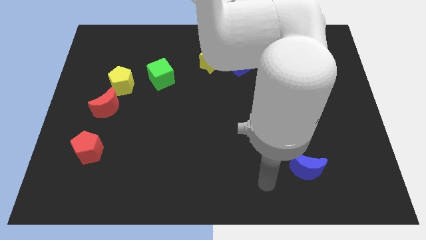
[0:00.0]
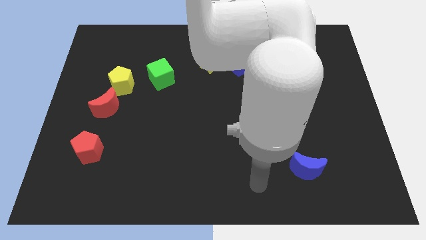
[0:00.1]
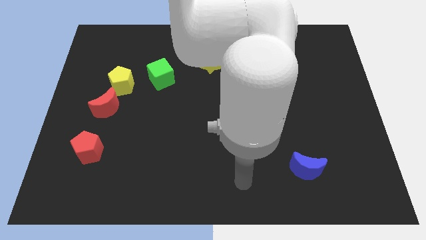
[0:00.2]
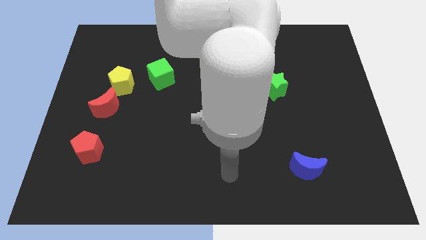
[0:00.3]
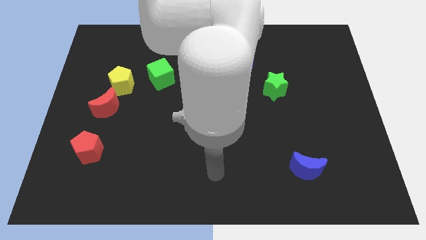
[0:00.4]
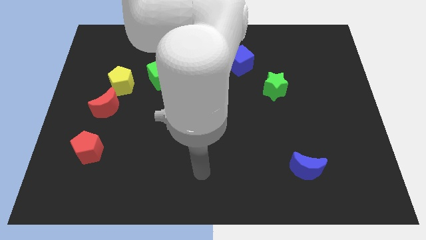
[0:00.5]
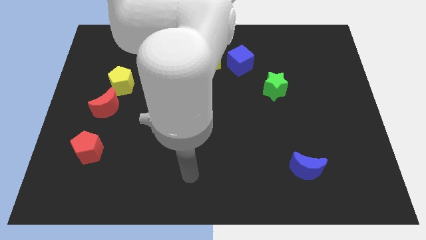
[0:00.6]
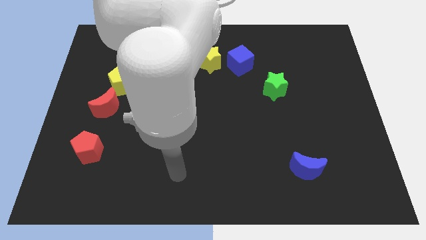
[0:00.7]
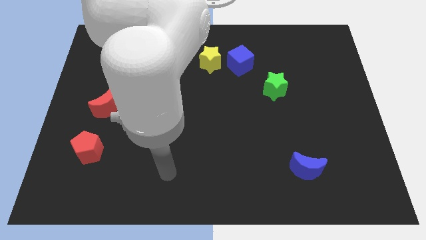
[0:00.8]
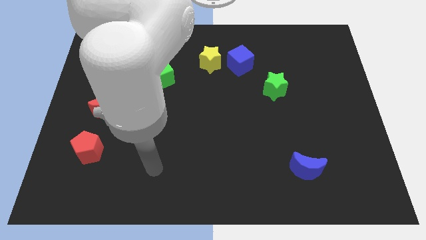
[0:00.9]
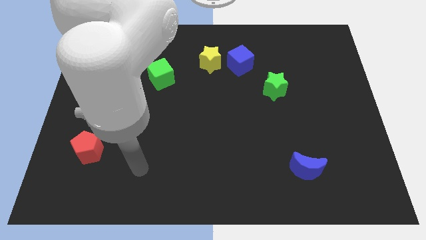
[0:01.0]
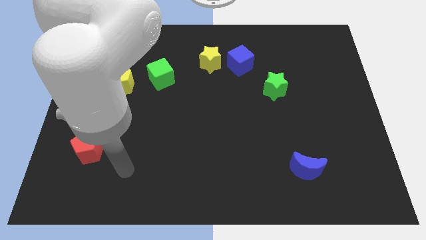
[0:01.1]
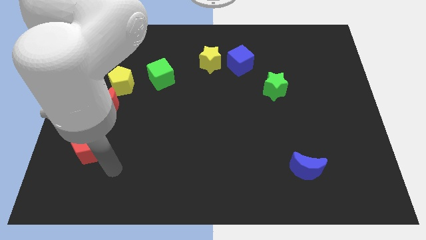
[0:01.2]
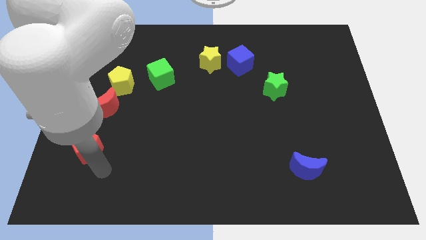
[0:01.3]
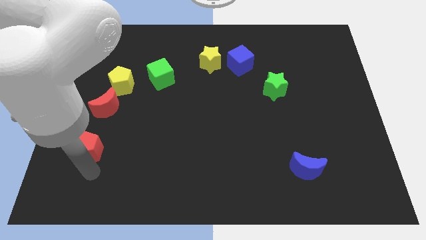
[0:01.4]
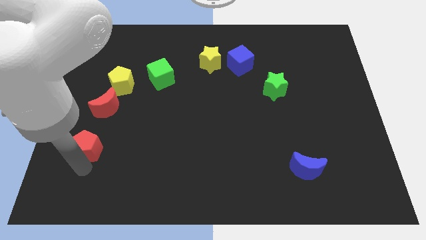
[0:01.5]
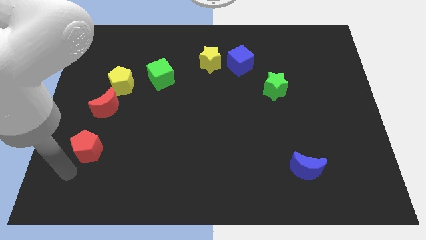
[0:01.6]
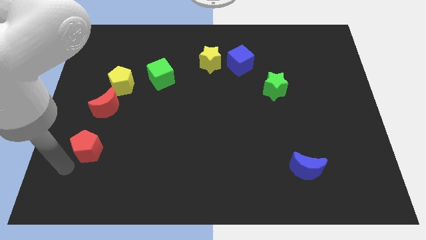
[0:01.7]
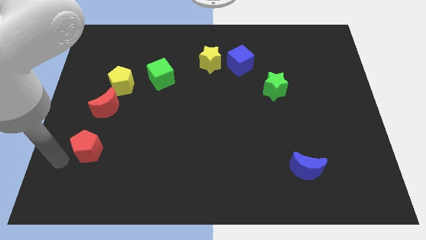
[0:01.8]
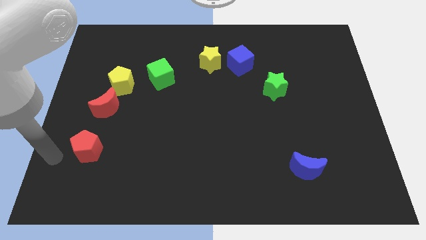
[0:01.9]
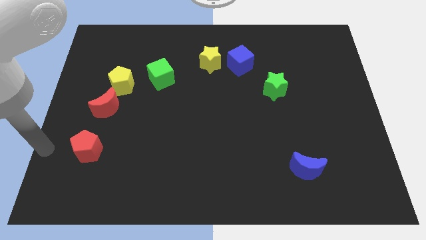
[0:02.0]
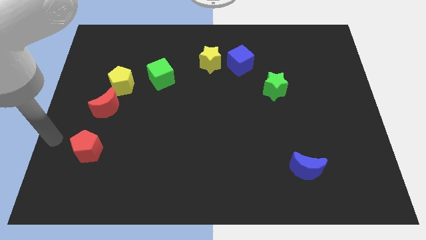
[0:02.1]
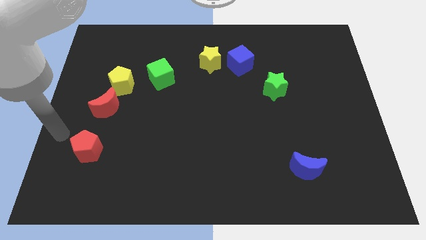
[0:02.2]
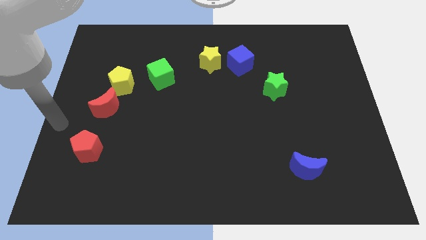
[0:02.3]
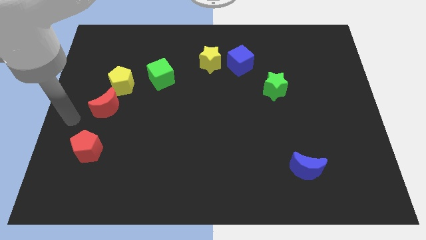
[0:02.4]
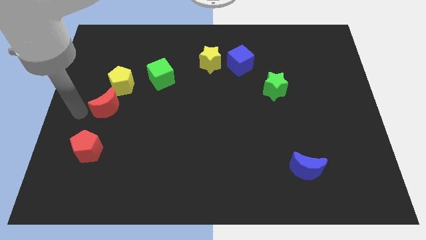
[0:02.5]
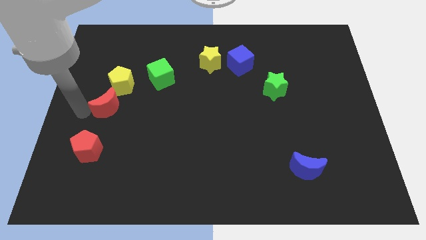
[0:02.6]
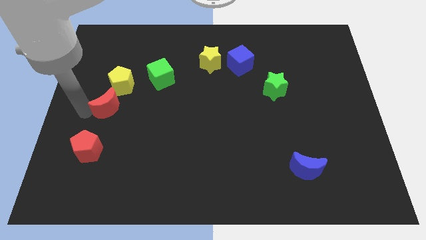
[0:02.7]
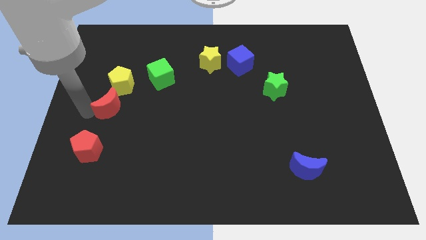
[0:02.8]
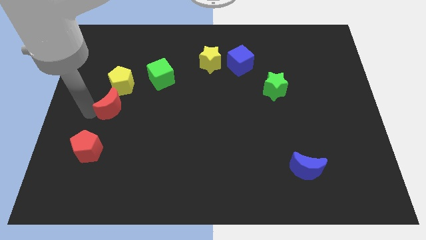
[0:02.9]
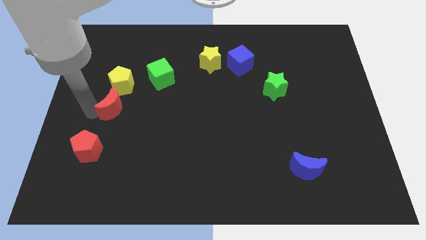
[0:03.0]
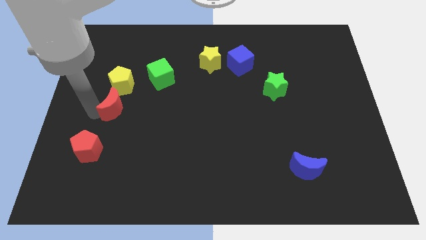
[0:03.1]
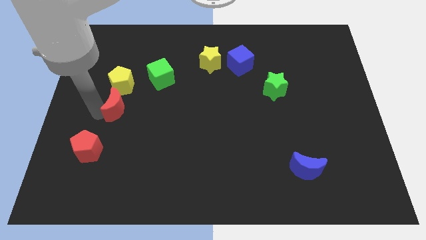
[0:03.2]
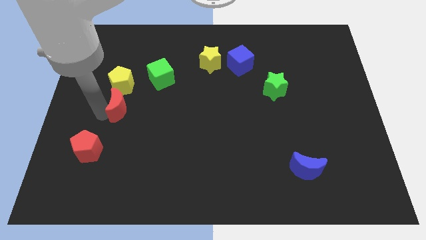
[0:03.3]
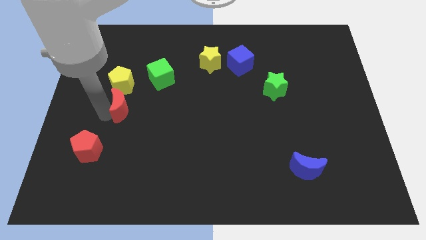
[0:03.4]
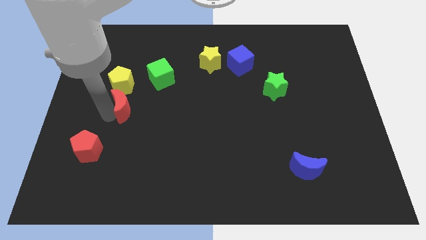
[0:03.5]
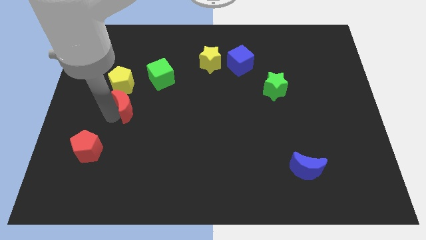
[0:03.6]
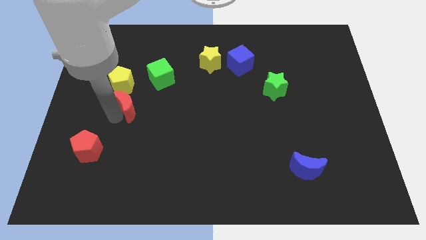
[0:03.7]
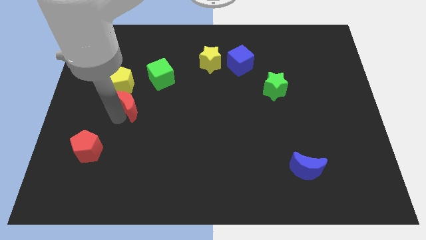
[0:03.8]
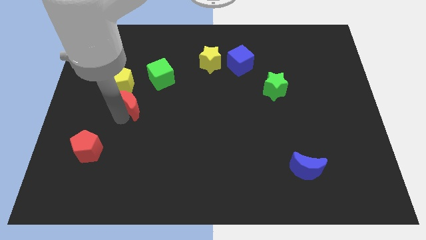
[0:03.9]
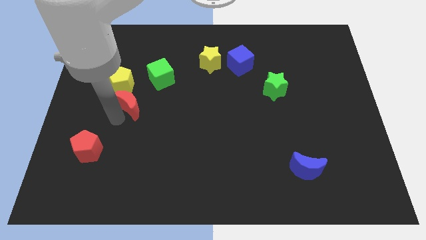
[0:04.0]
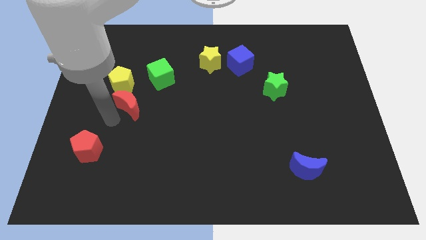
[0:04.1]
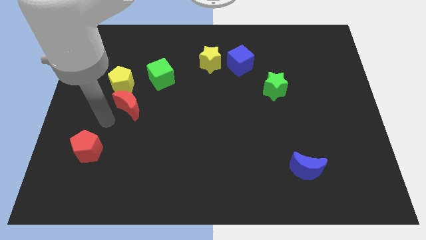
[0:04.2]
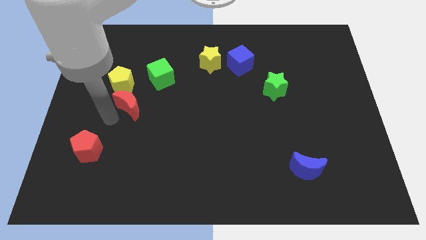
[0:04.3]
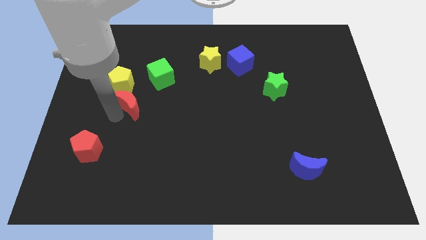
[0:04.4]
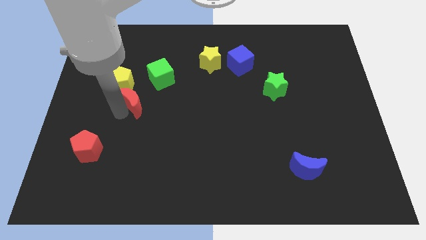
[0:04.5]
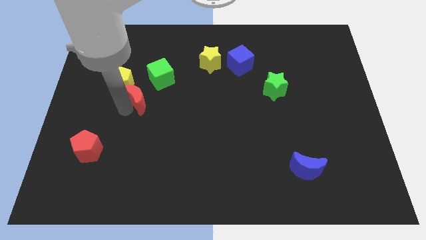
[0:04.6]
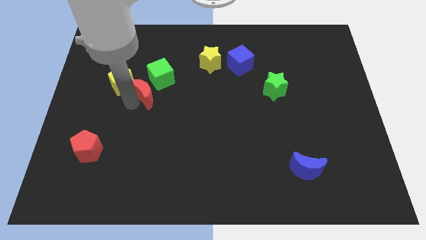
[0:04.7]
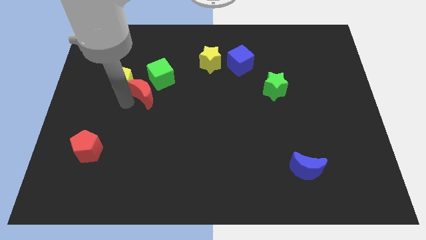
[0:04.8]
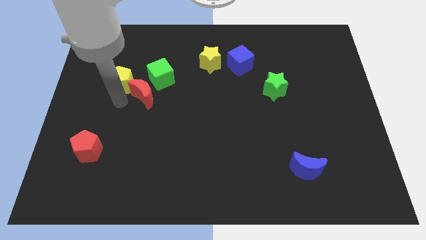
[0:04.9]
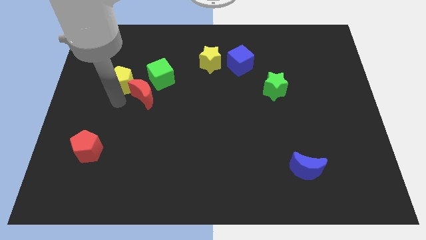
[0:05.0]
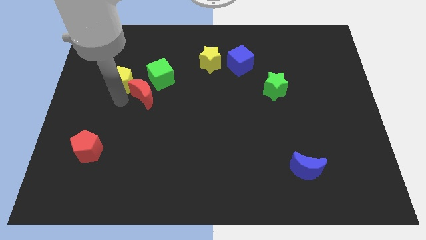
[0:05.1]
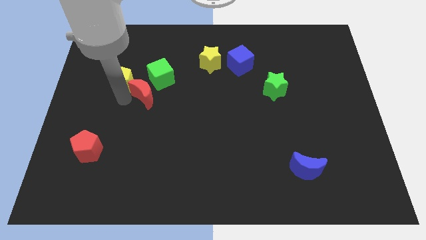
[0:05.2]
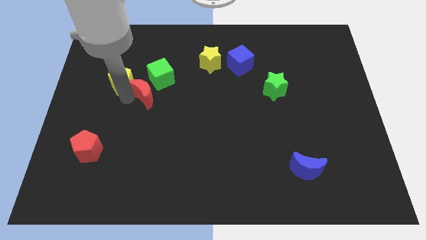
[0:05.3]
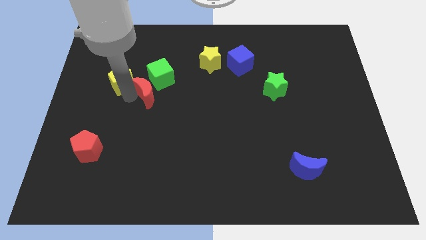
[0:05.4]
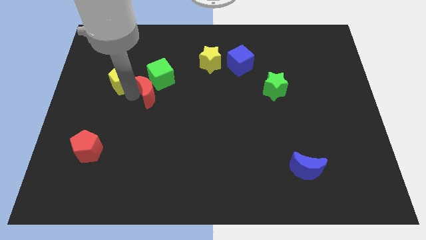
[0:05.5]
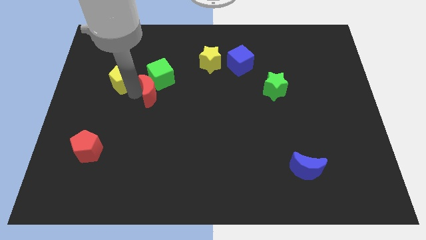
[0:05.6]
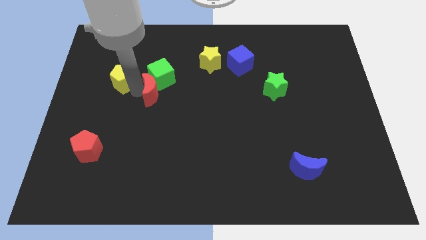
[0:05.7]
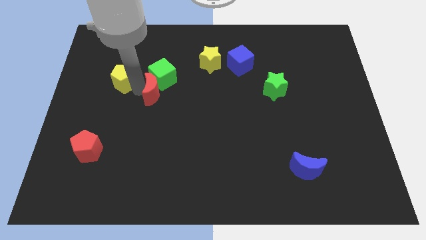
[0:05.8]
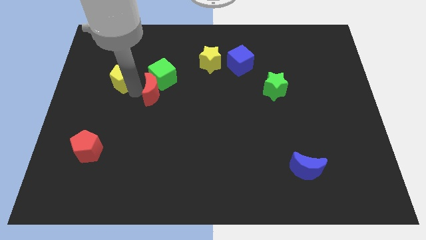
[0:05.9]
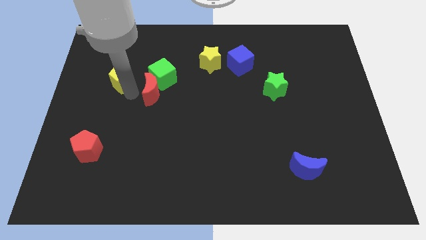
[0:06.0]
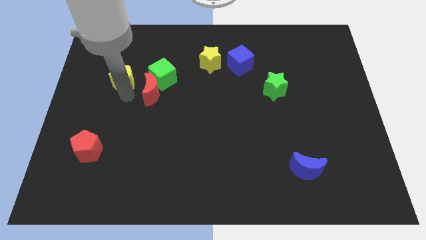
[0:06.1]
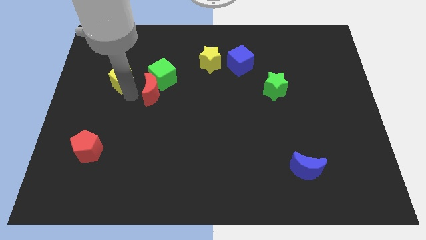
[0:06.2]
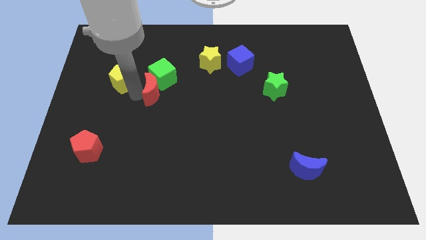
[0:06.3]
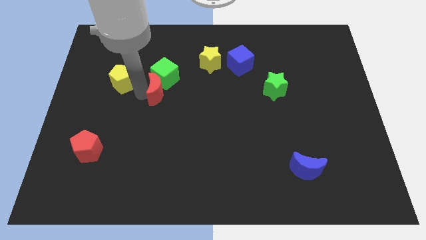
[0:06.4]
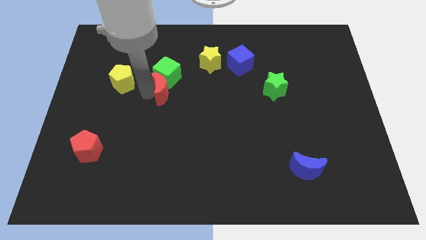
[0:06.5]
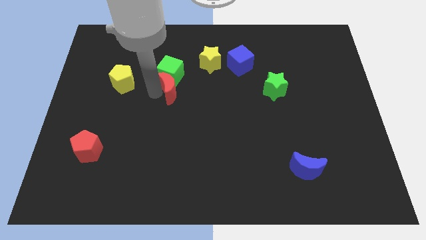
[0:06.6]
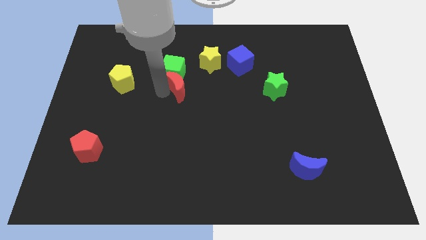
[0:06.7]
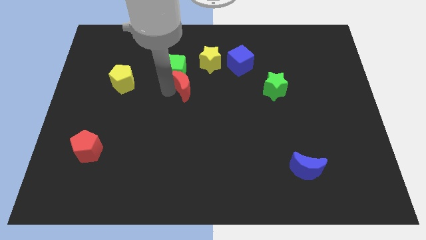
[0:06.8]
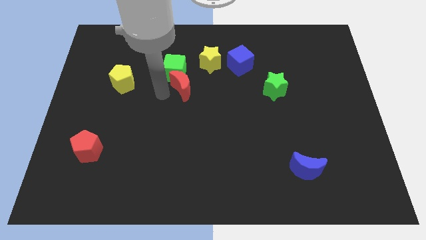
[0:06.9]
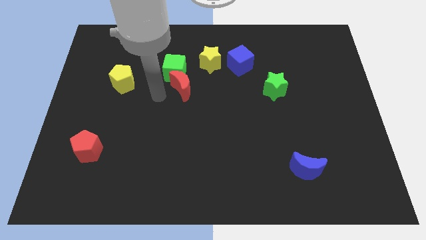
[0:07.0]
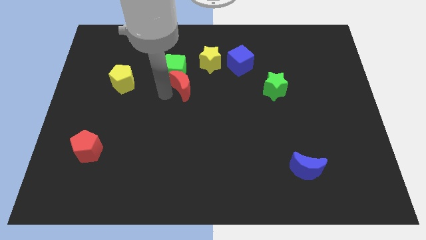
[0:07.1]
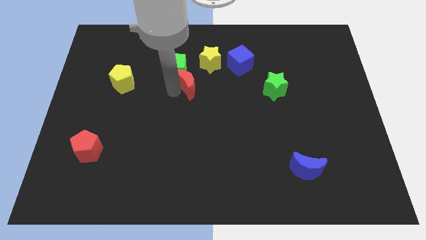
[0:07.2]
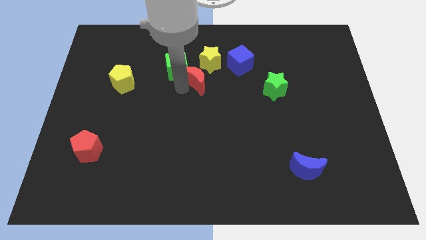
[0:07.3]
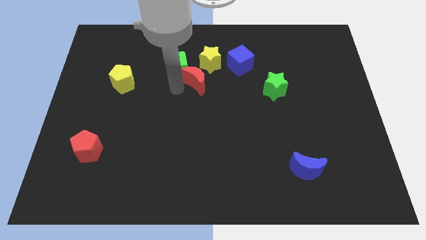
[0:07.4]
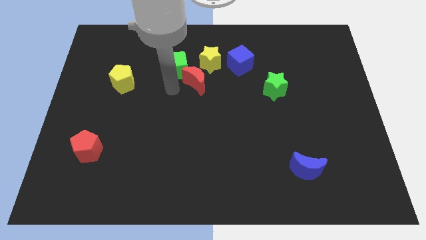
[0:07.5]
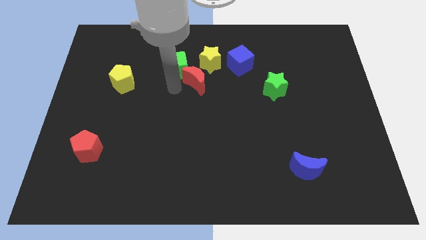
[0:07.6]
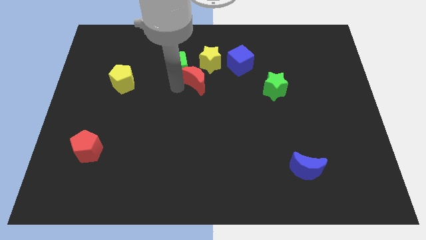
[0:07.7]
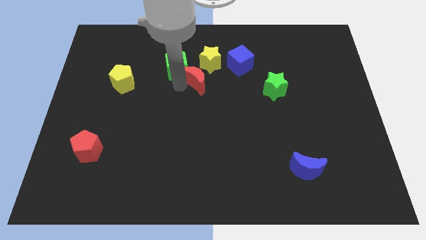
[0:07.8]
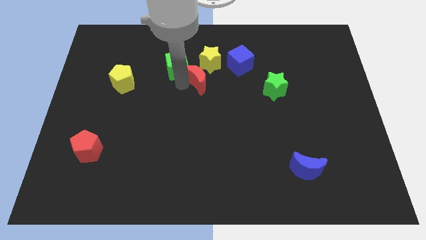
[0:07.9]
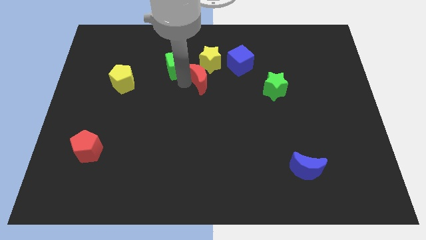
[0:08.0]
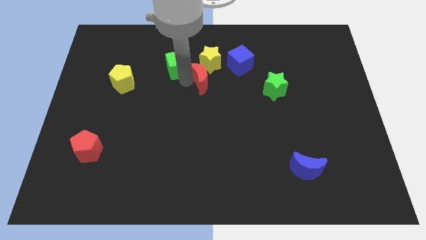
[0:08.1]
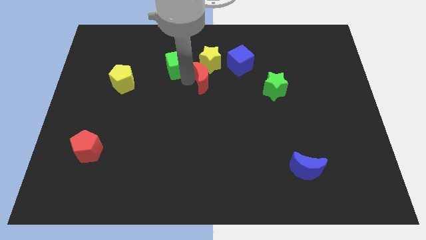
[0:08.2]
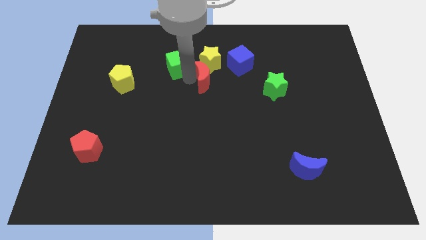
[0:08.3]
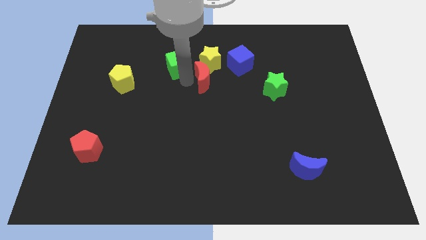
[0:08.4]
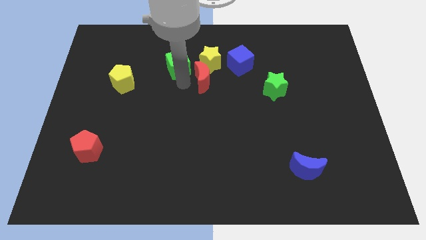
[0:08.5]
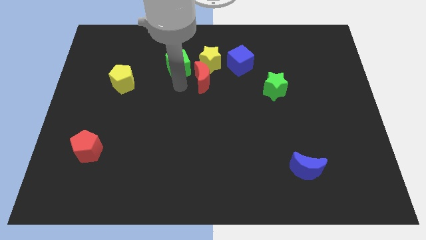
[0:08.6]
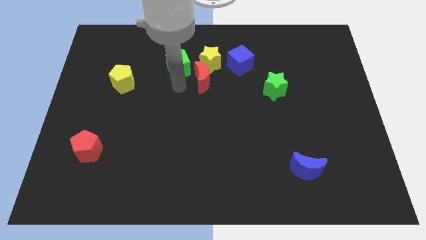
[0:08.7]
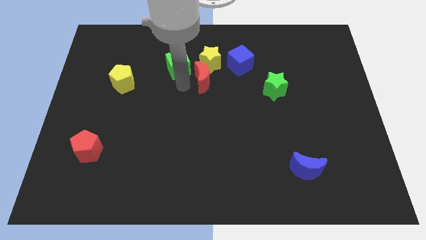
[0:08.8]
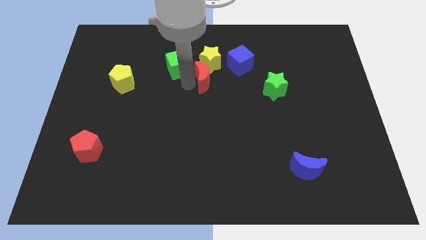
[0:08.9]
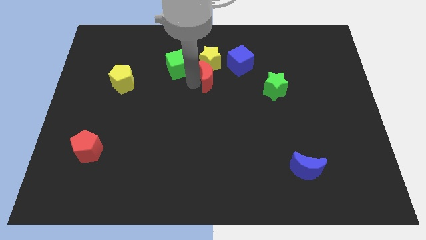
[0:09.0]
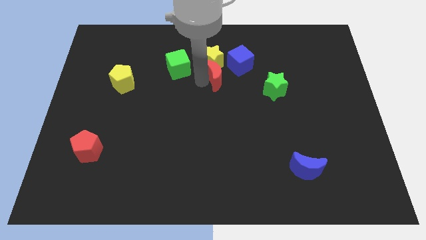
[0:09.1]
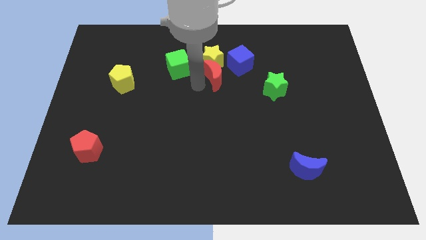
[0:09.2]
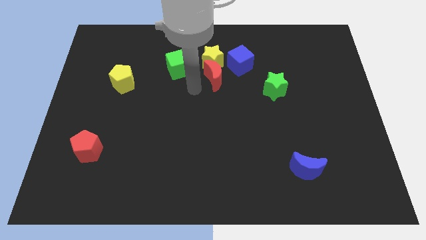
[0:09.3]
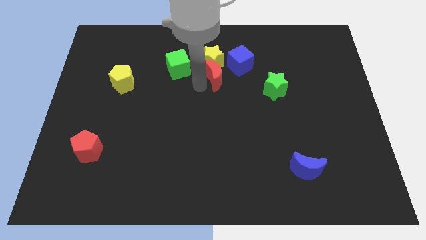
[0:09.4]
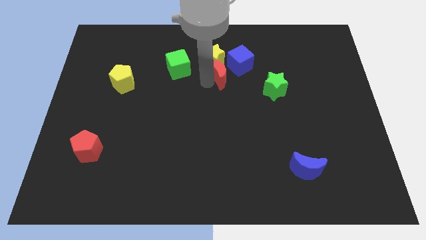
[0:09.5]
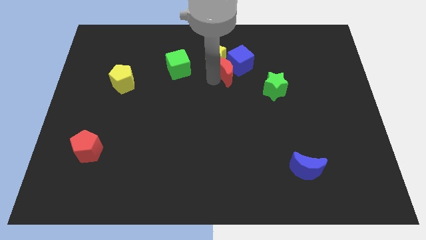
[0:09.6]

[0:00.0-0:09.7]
push the red moon to the blue cube
